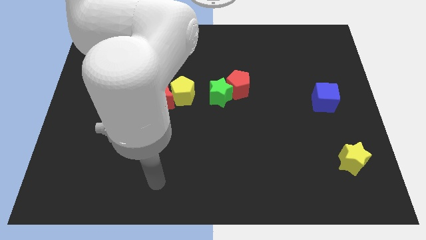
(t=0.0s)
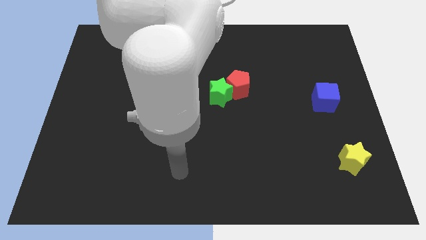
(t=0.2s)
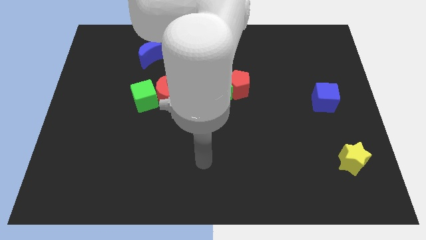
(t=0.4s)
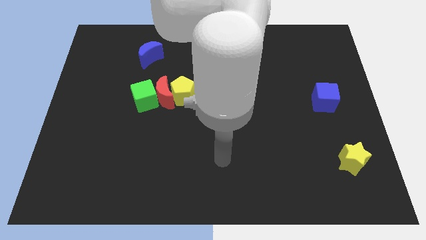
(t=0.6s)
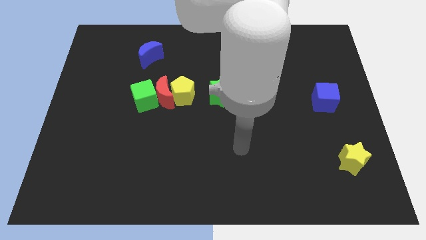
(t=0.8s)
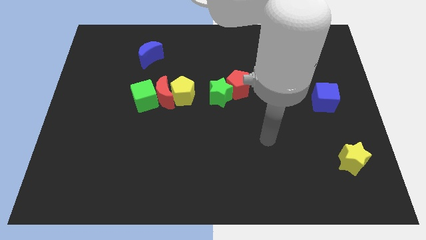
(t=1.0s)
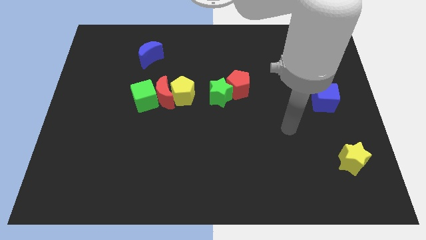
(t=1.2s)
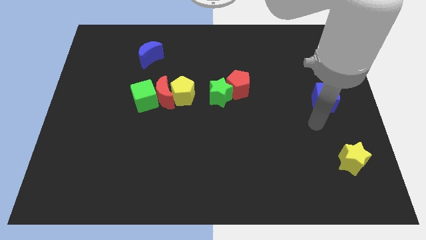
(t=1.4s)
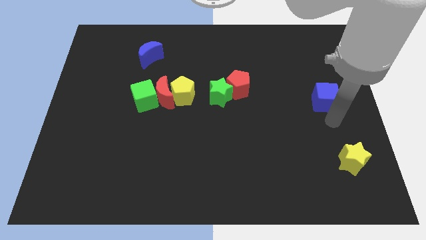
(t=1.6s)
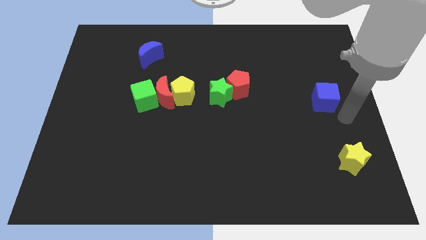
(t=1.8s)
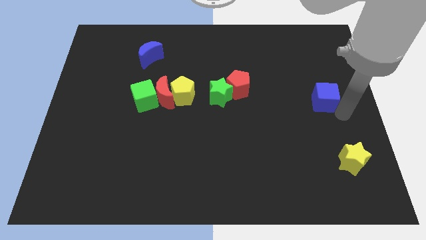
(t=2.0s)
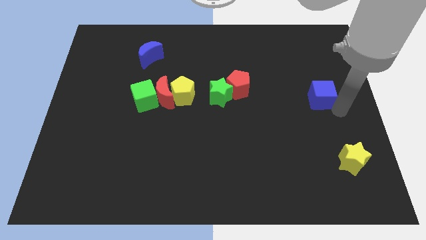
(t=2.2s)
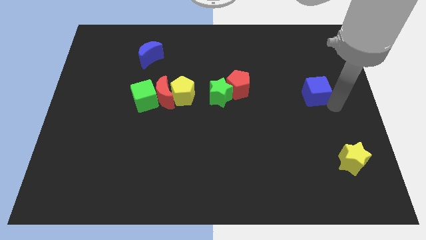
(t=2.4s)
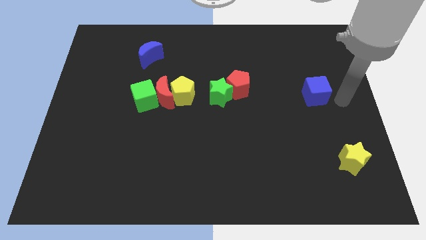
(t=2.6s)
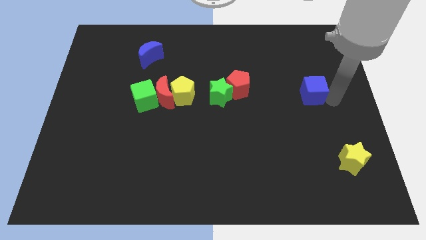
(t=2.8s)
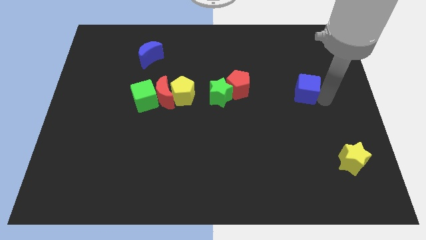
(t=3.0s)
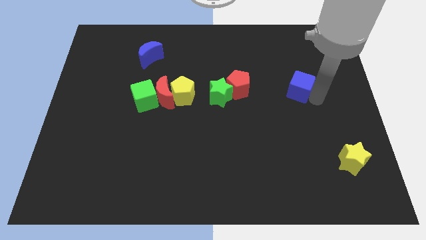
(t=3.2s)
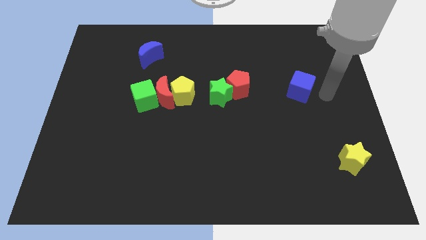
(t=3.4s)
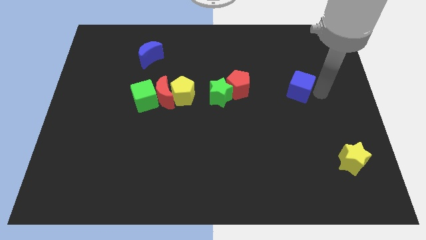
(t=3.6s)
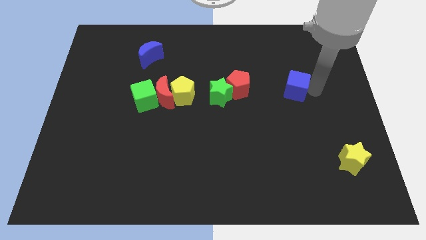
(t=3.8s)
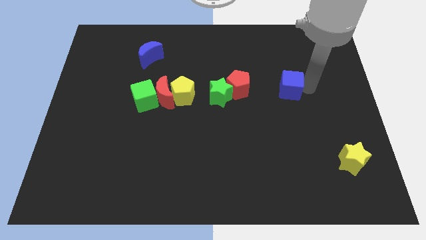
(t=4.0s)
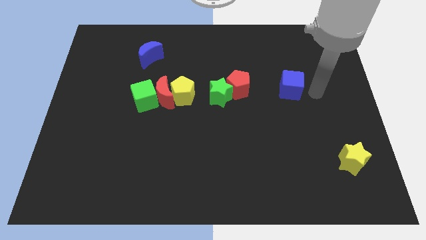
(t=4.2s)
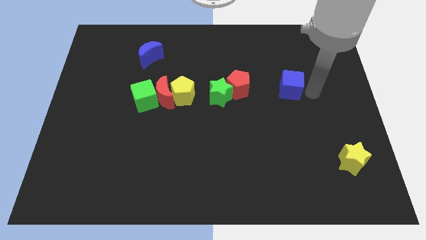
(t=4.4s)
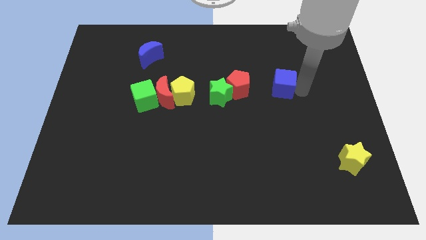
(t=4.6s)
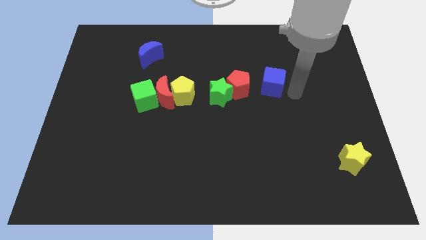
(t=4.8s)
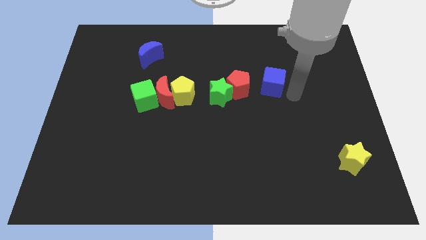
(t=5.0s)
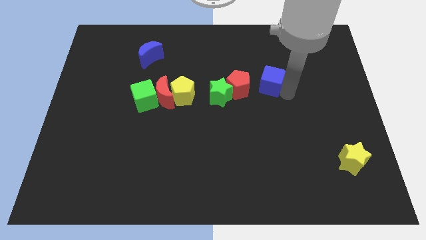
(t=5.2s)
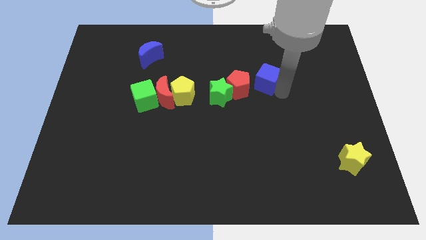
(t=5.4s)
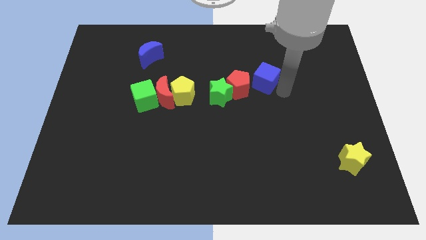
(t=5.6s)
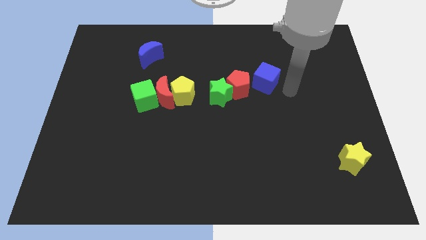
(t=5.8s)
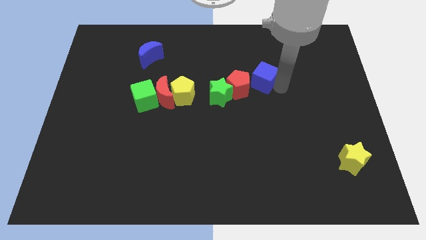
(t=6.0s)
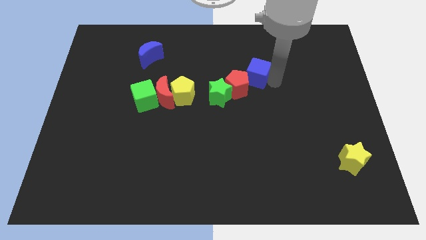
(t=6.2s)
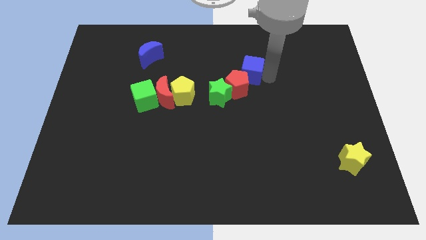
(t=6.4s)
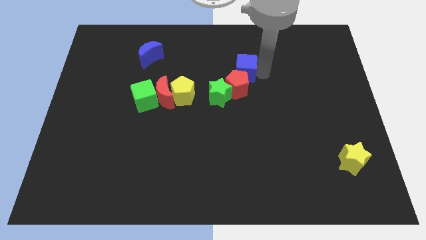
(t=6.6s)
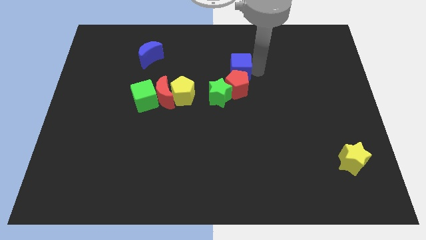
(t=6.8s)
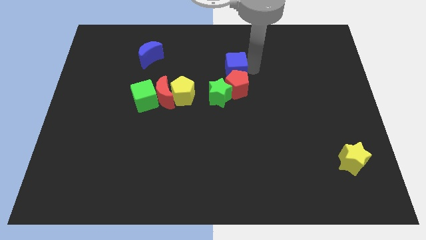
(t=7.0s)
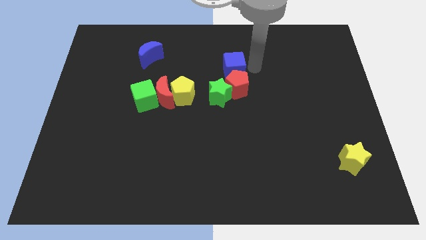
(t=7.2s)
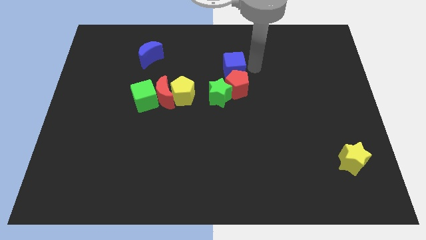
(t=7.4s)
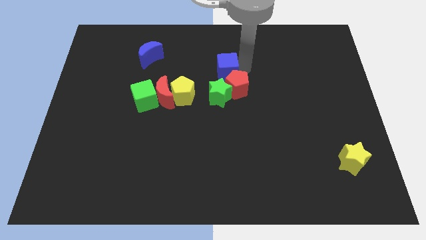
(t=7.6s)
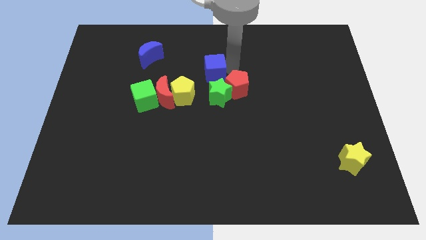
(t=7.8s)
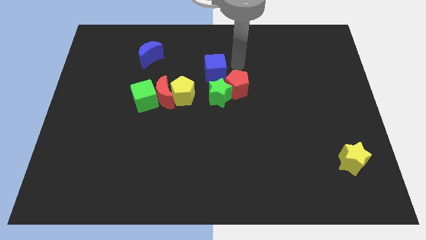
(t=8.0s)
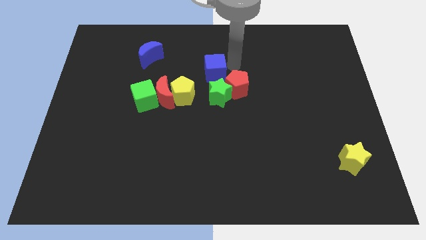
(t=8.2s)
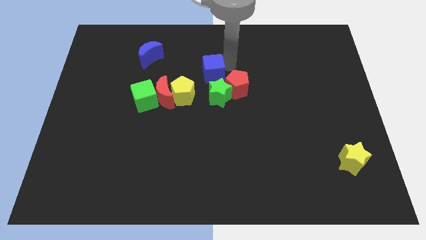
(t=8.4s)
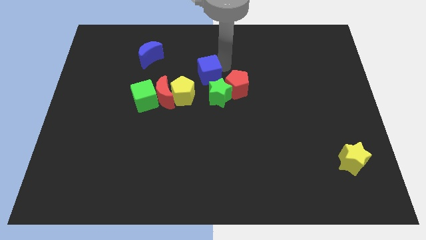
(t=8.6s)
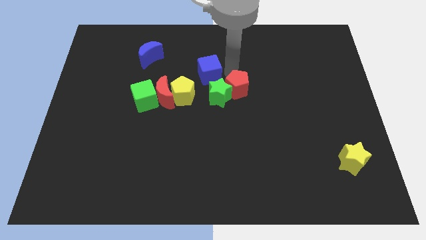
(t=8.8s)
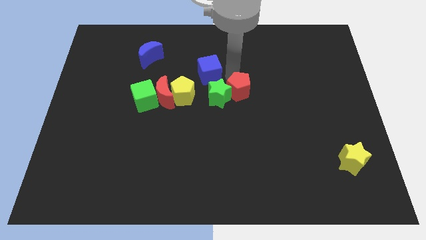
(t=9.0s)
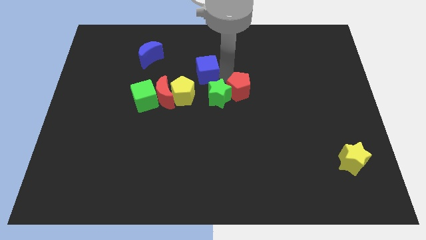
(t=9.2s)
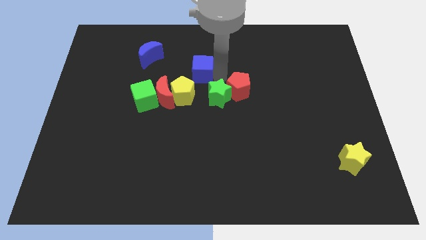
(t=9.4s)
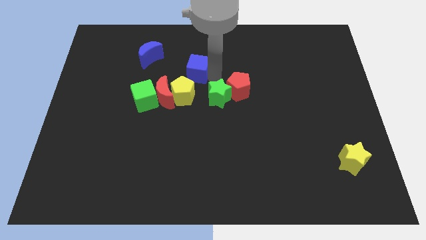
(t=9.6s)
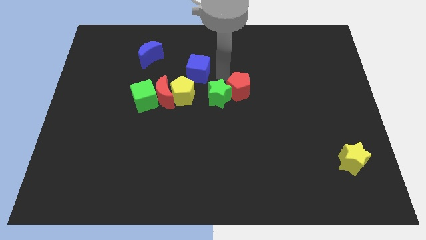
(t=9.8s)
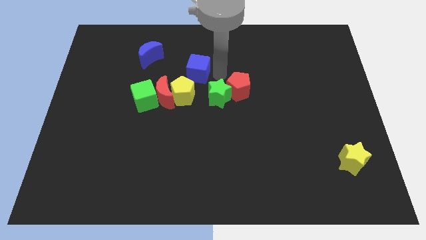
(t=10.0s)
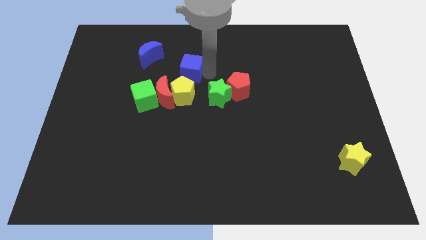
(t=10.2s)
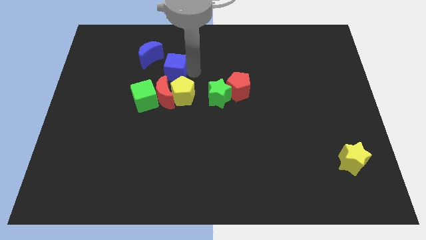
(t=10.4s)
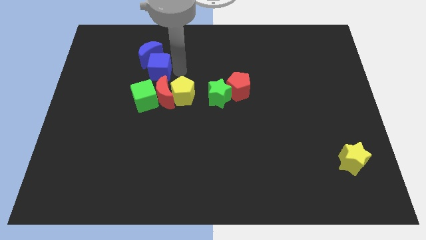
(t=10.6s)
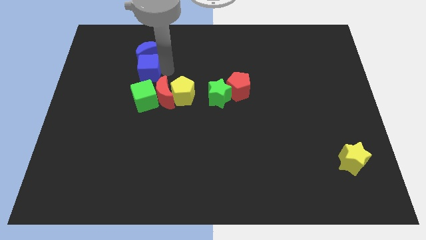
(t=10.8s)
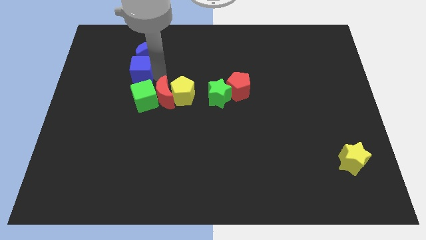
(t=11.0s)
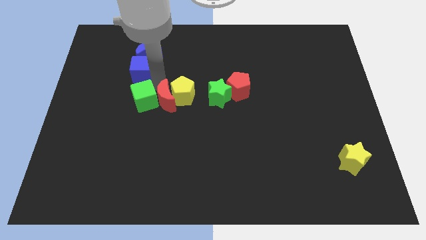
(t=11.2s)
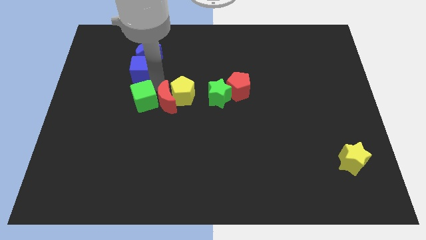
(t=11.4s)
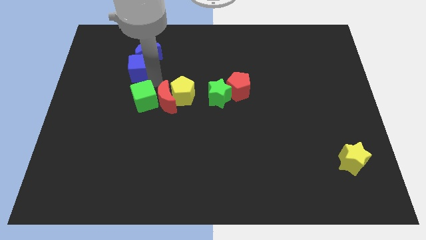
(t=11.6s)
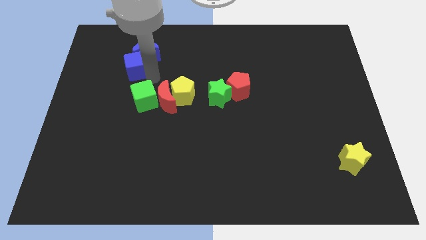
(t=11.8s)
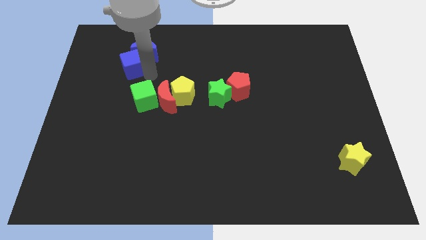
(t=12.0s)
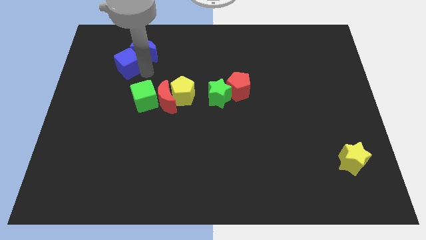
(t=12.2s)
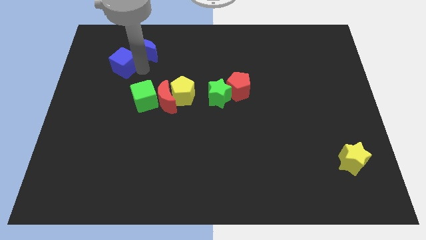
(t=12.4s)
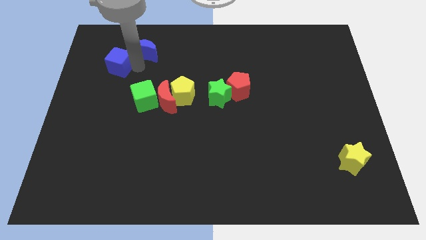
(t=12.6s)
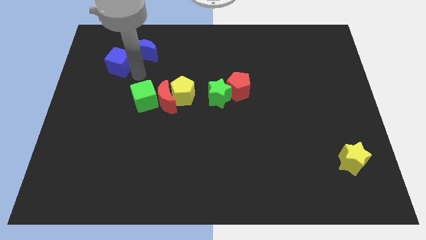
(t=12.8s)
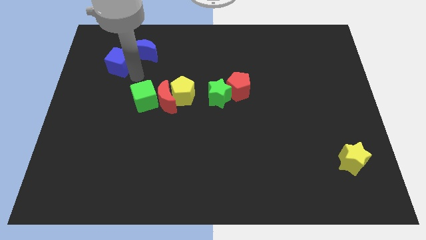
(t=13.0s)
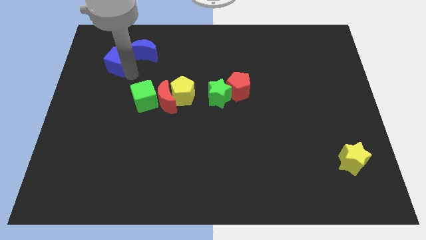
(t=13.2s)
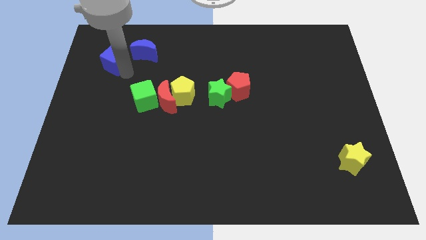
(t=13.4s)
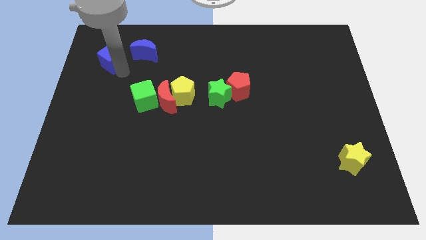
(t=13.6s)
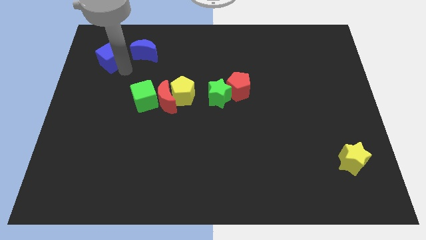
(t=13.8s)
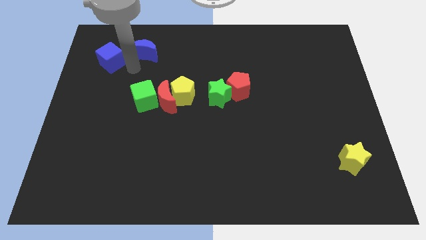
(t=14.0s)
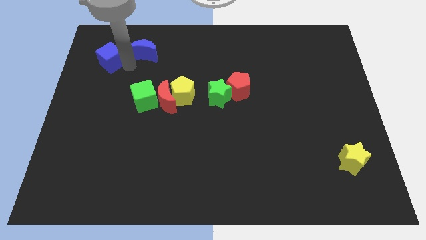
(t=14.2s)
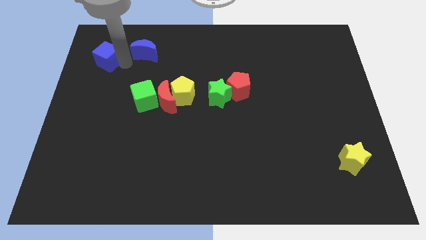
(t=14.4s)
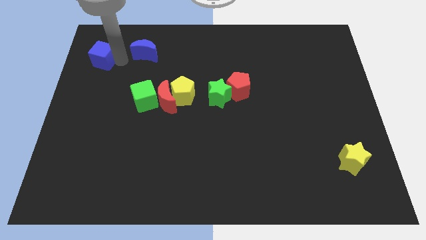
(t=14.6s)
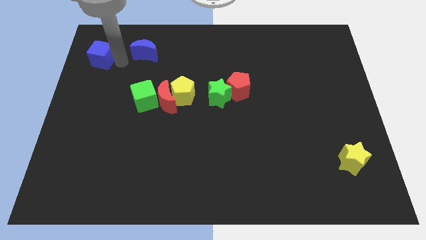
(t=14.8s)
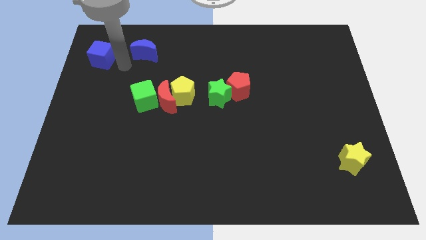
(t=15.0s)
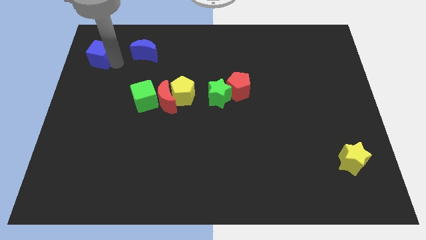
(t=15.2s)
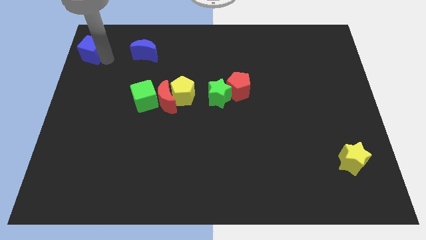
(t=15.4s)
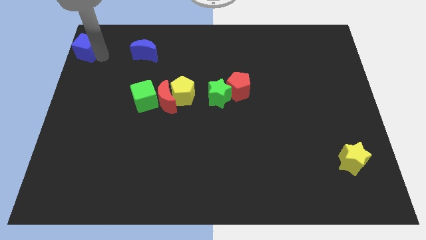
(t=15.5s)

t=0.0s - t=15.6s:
slide the blue cube to the top left of the board
